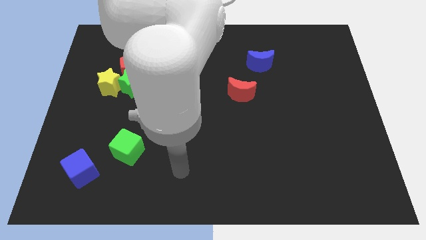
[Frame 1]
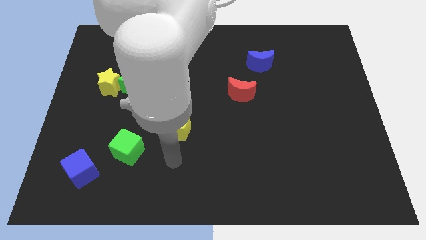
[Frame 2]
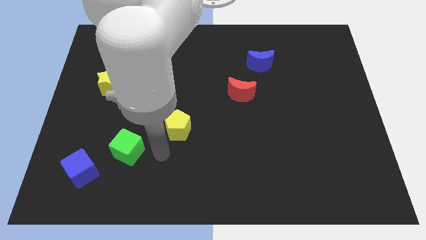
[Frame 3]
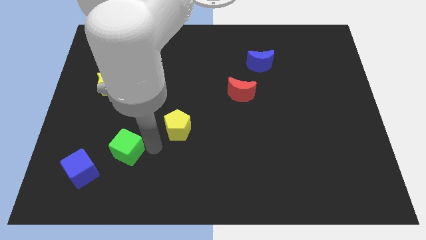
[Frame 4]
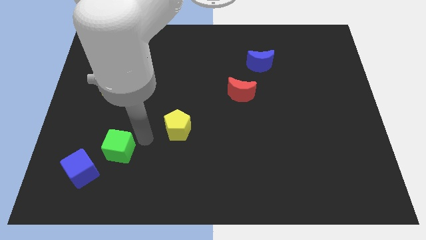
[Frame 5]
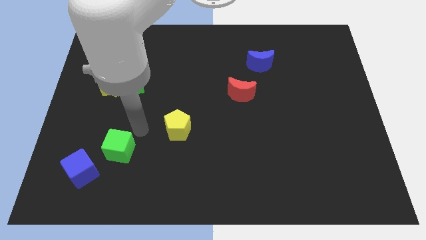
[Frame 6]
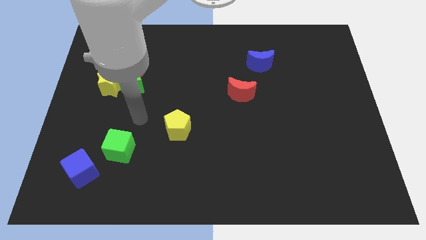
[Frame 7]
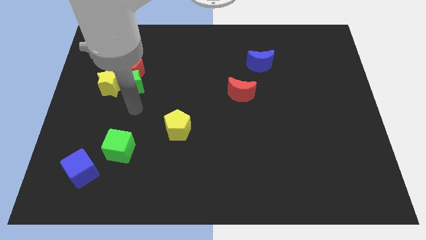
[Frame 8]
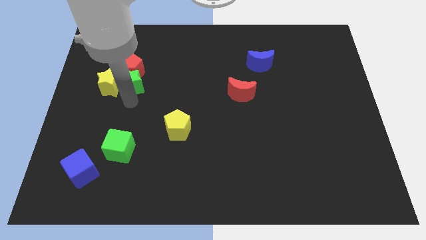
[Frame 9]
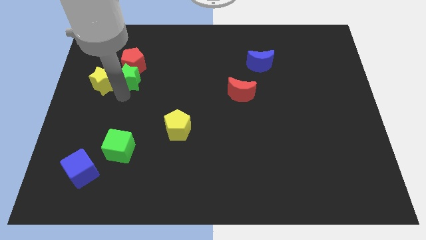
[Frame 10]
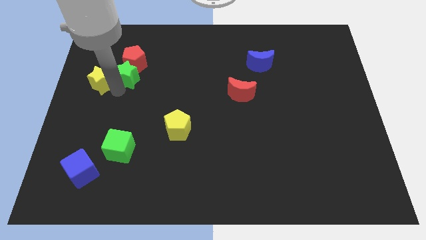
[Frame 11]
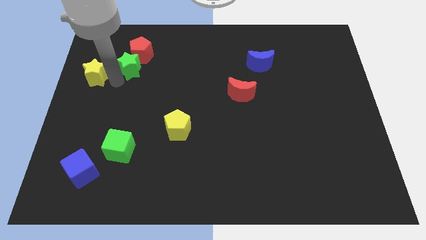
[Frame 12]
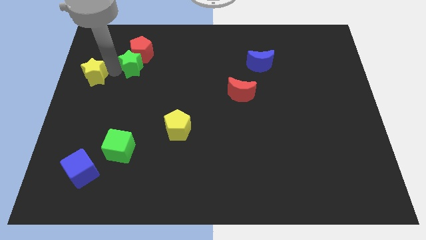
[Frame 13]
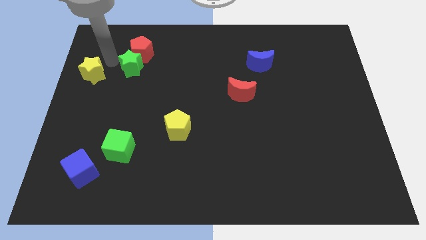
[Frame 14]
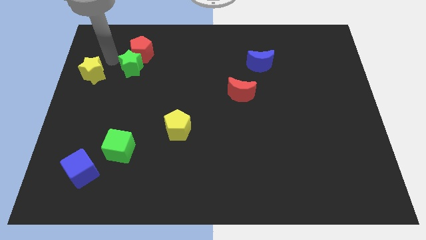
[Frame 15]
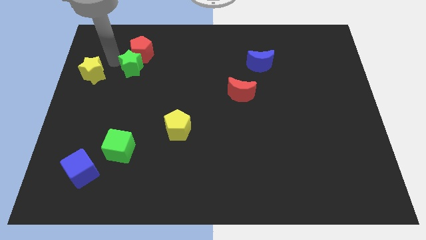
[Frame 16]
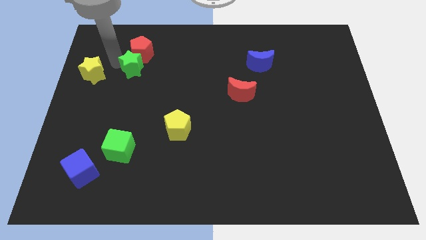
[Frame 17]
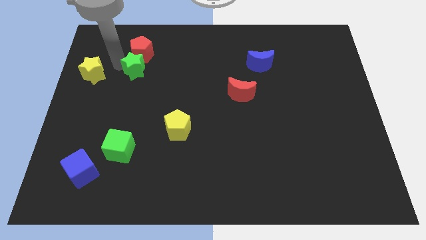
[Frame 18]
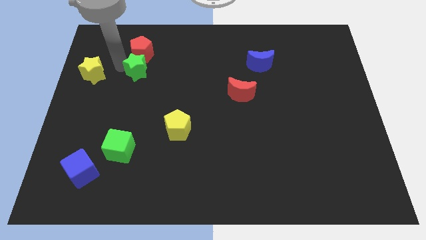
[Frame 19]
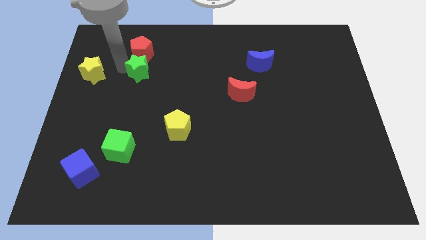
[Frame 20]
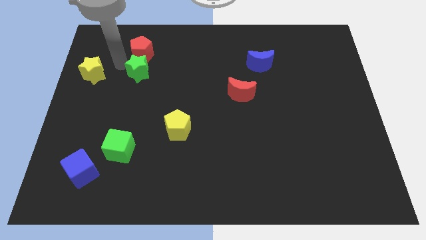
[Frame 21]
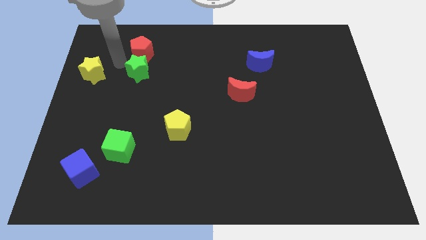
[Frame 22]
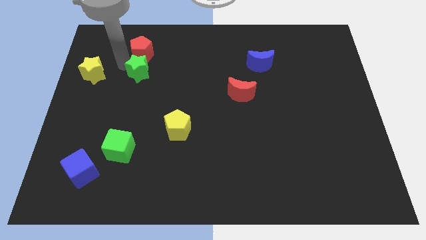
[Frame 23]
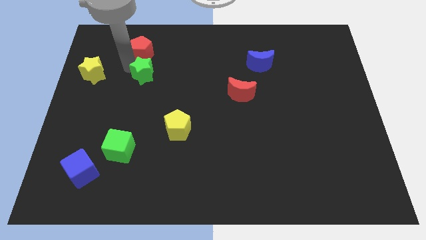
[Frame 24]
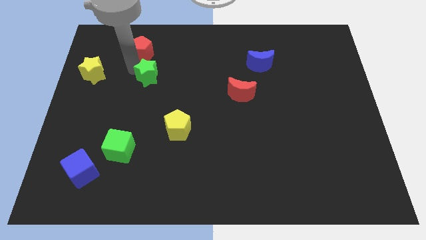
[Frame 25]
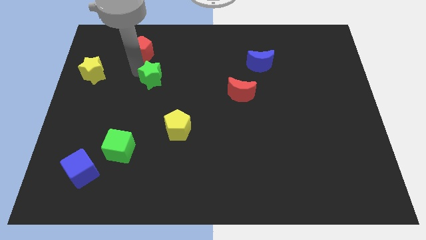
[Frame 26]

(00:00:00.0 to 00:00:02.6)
pull the green star apart from the red pentagon and yellow star

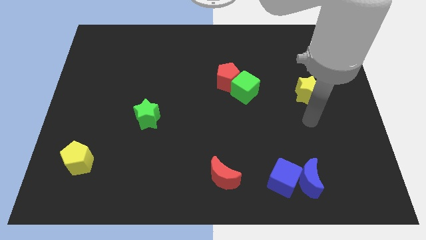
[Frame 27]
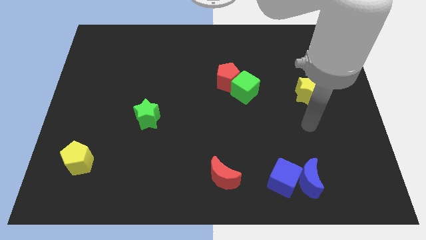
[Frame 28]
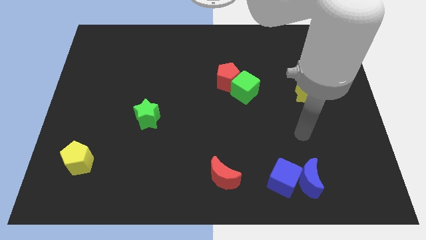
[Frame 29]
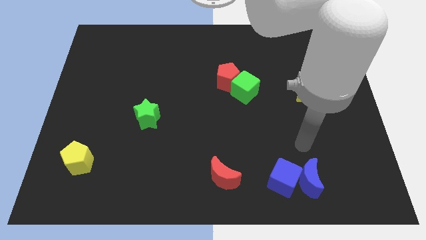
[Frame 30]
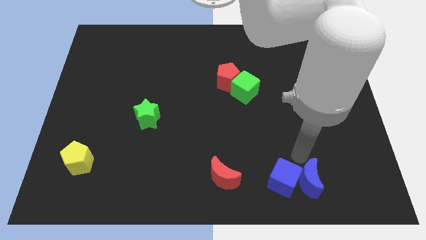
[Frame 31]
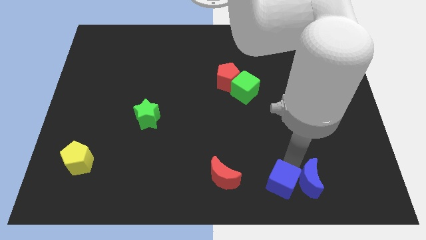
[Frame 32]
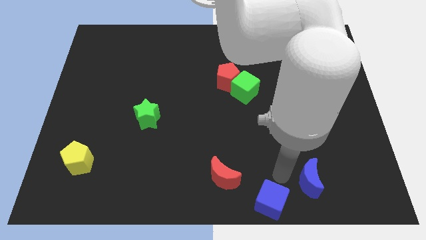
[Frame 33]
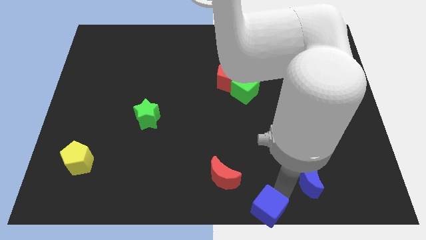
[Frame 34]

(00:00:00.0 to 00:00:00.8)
move the blue moon away from the blue cube

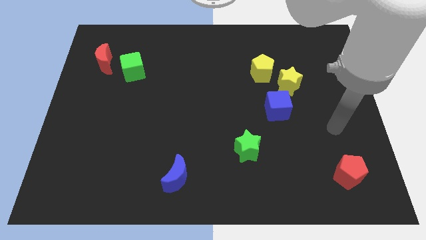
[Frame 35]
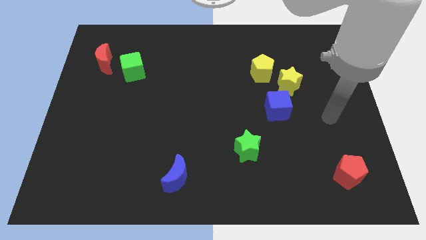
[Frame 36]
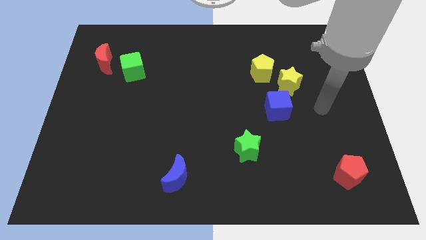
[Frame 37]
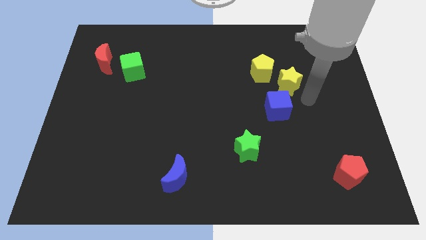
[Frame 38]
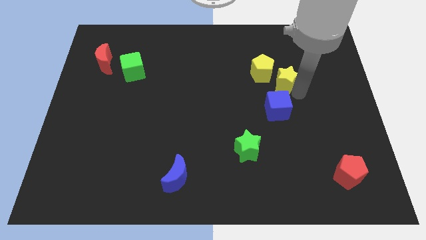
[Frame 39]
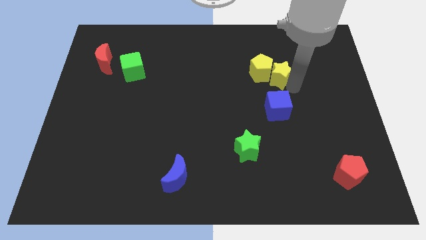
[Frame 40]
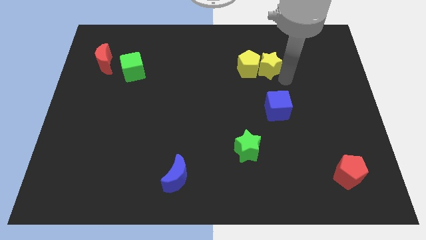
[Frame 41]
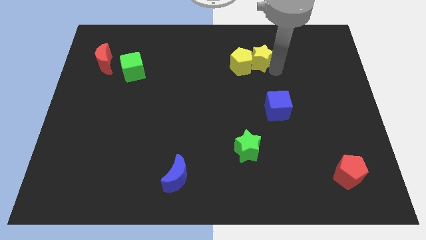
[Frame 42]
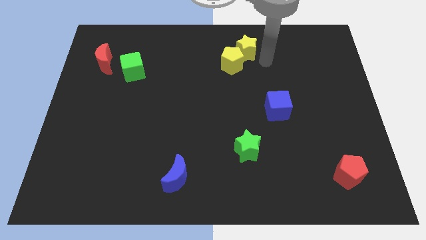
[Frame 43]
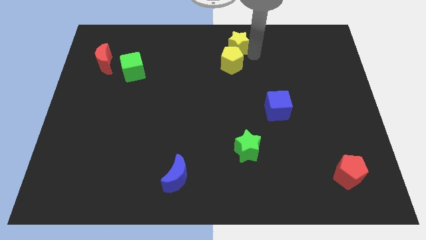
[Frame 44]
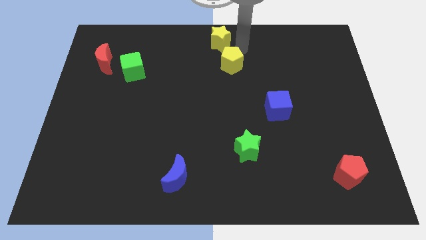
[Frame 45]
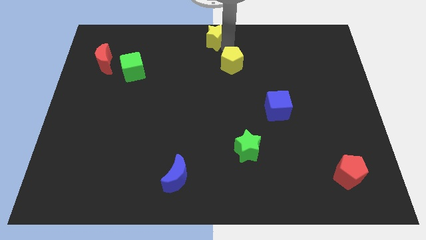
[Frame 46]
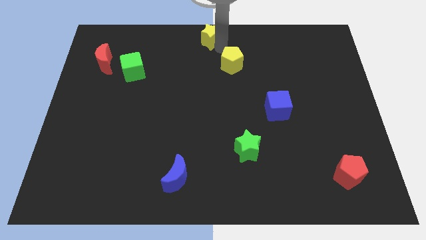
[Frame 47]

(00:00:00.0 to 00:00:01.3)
separate the yellow pentagon from the yellow star

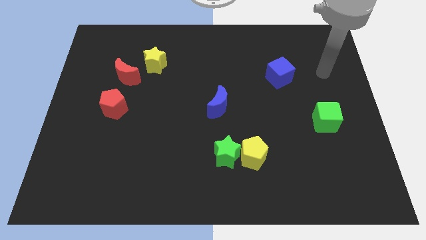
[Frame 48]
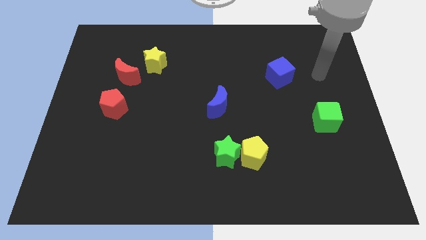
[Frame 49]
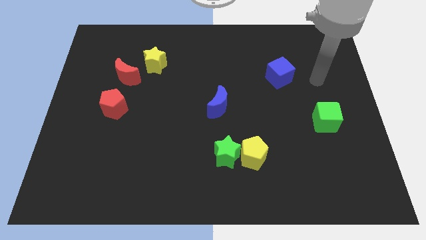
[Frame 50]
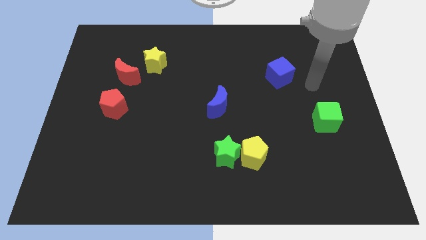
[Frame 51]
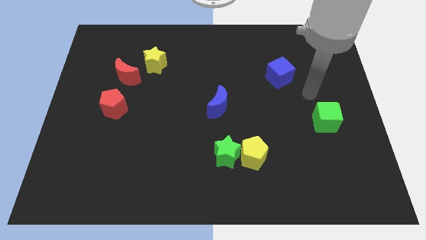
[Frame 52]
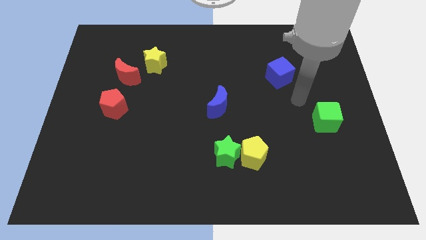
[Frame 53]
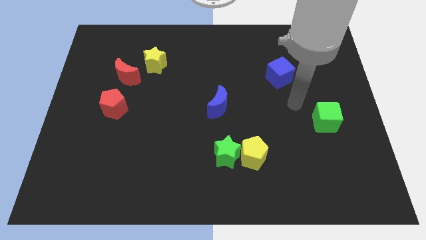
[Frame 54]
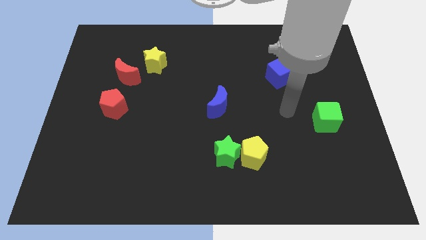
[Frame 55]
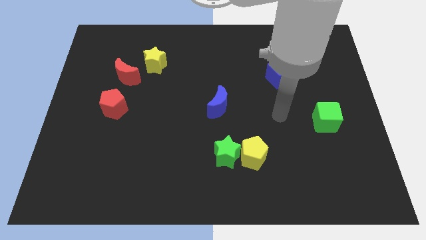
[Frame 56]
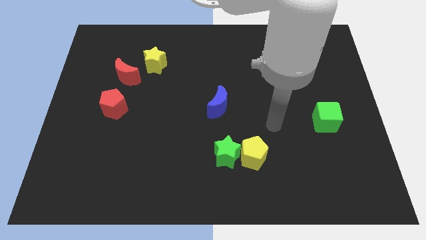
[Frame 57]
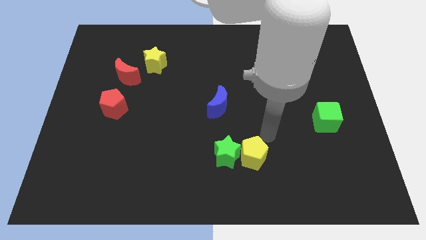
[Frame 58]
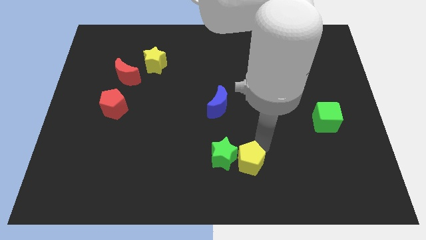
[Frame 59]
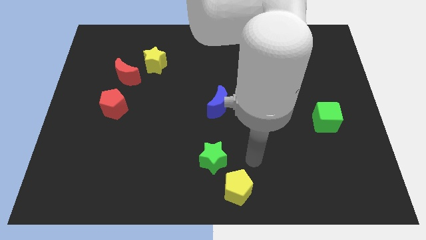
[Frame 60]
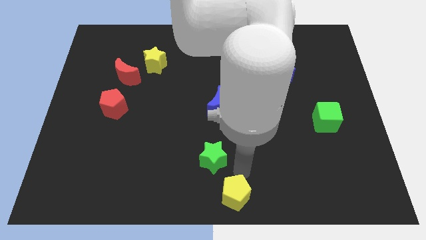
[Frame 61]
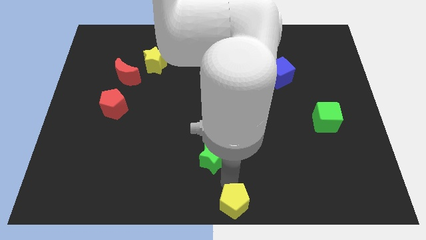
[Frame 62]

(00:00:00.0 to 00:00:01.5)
separate the green star from the yellow pentagon

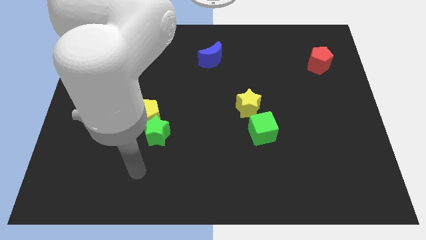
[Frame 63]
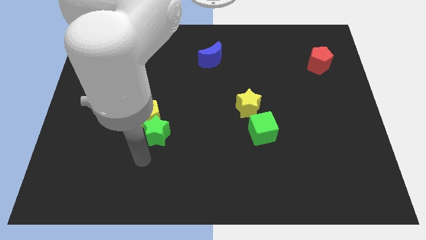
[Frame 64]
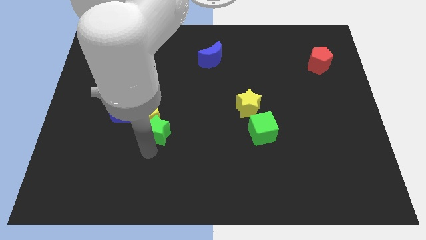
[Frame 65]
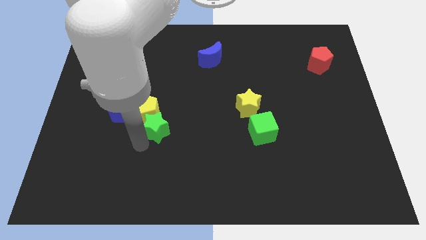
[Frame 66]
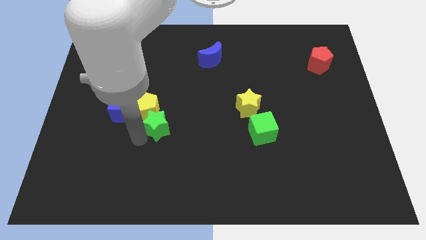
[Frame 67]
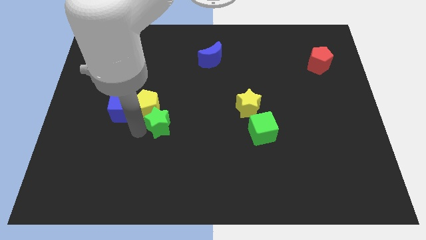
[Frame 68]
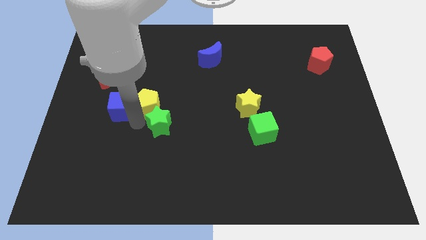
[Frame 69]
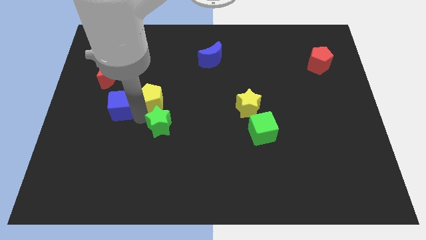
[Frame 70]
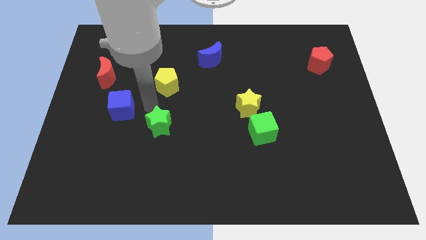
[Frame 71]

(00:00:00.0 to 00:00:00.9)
move the green star away from the yellow pentagon

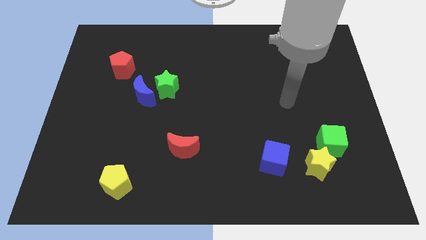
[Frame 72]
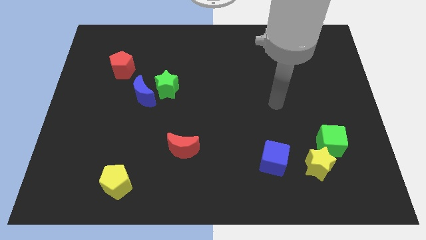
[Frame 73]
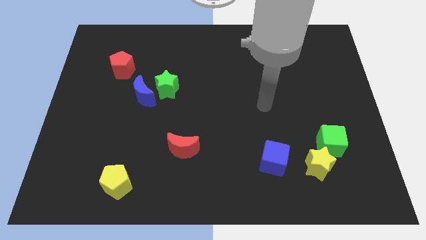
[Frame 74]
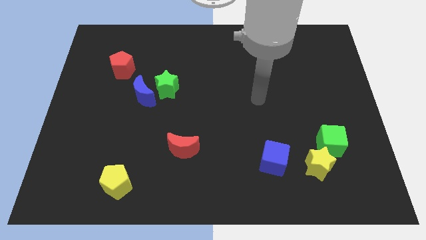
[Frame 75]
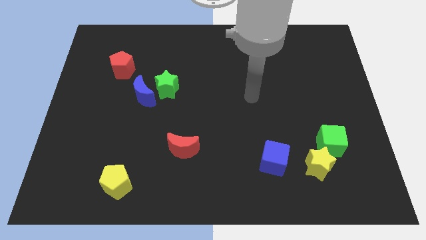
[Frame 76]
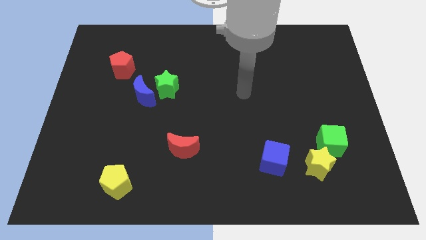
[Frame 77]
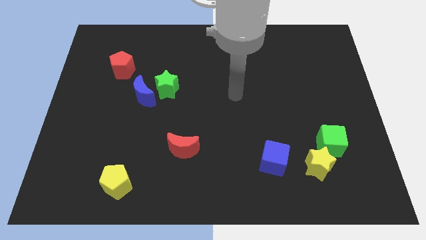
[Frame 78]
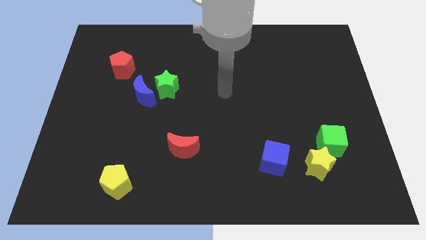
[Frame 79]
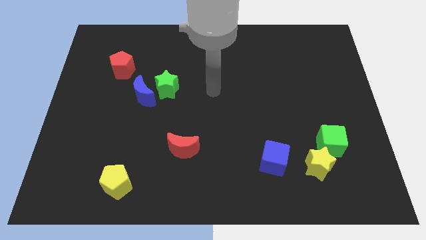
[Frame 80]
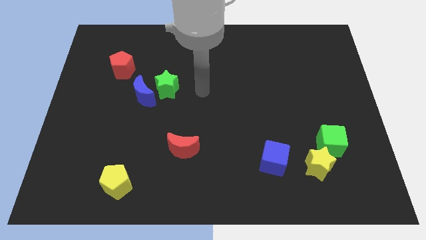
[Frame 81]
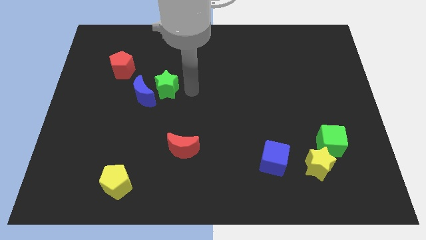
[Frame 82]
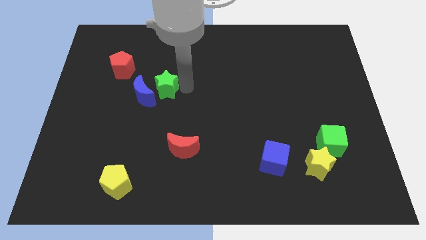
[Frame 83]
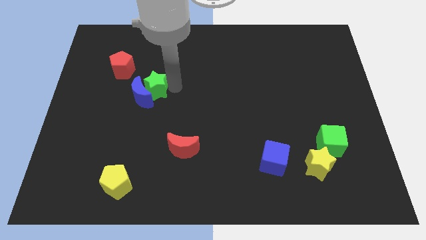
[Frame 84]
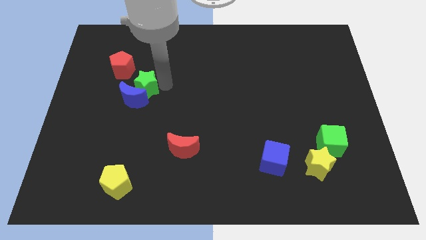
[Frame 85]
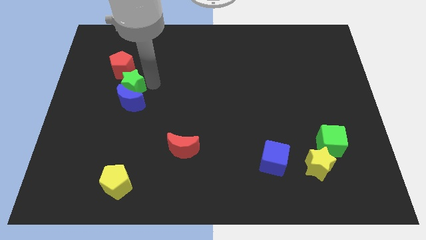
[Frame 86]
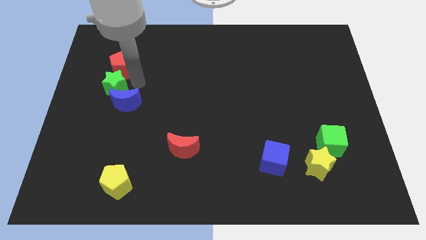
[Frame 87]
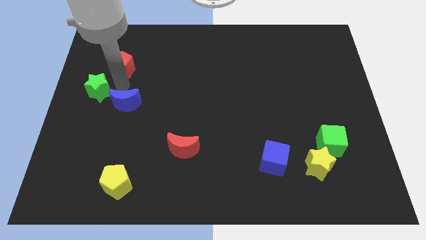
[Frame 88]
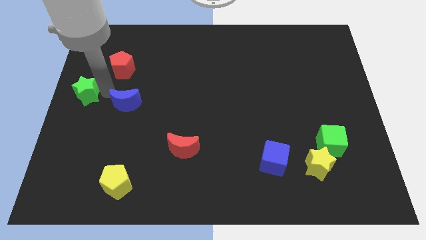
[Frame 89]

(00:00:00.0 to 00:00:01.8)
separate the blue moon from the green star

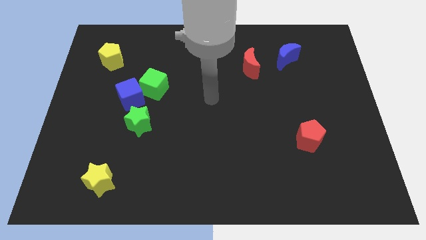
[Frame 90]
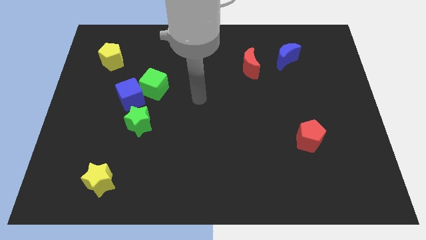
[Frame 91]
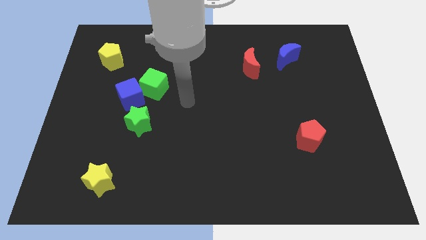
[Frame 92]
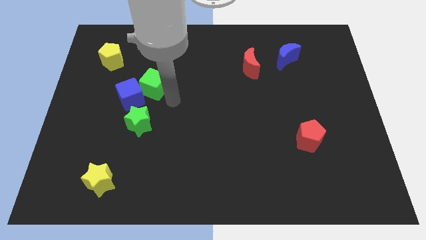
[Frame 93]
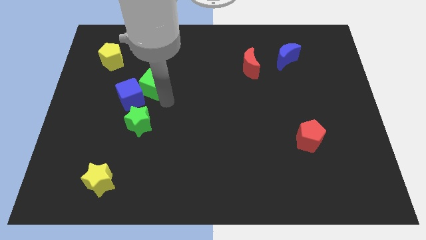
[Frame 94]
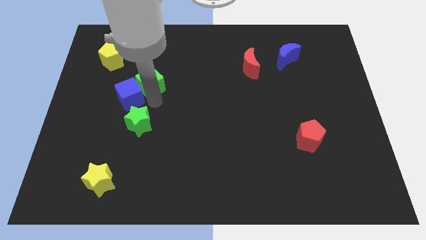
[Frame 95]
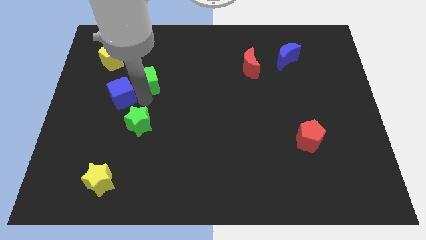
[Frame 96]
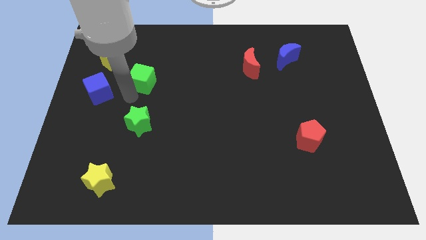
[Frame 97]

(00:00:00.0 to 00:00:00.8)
move the green cube away from the blue cube
